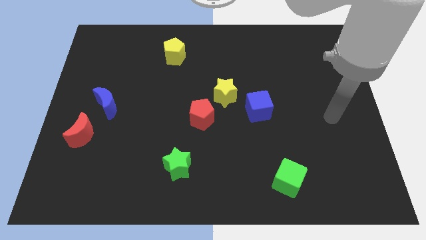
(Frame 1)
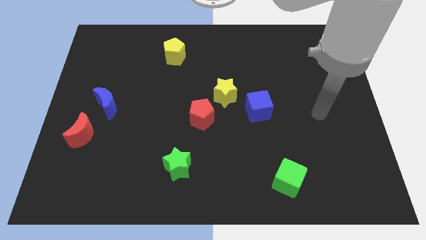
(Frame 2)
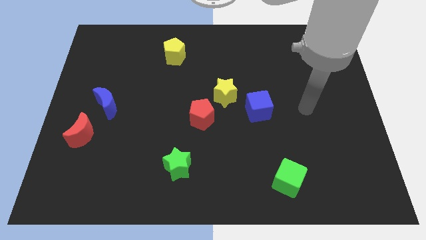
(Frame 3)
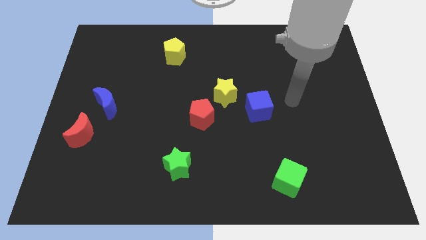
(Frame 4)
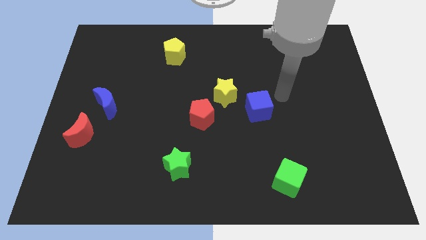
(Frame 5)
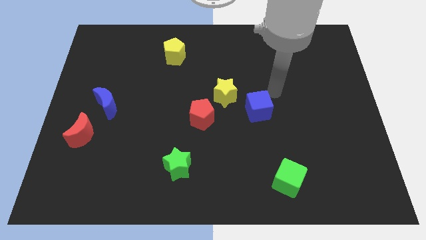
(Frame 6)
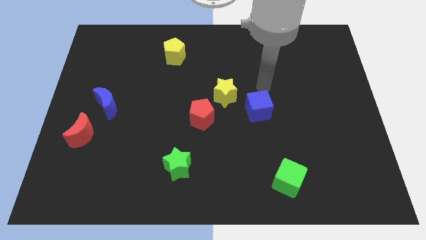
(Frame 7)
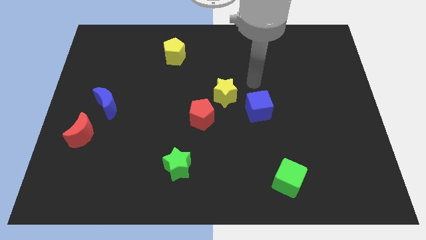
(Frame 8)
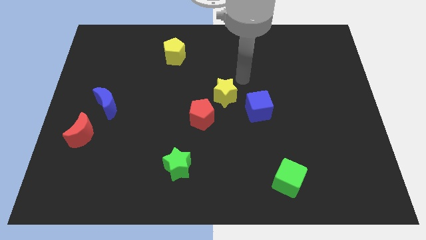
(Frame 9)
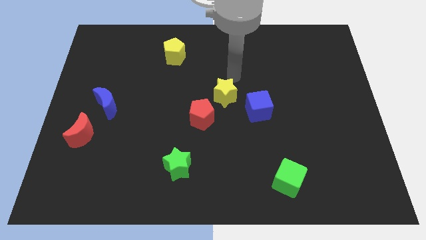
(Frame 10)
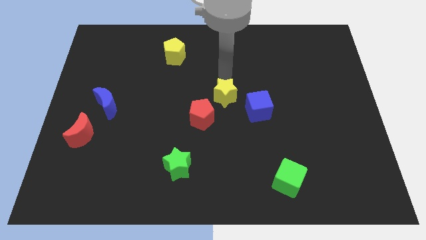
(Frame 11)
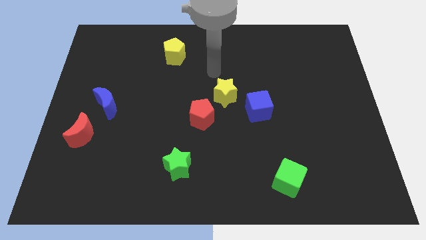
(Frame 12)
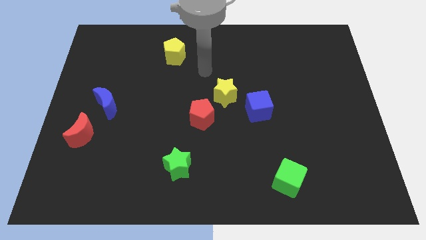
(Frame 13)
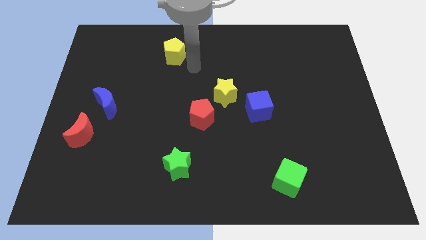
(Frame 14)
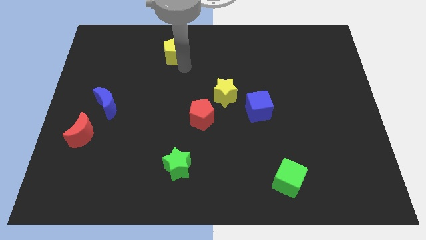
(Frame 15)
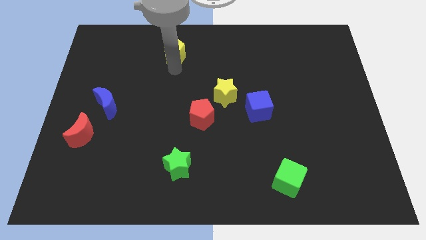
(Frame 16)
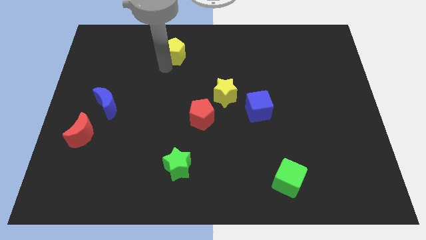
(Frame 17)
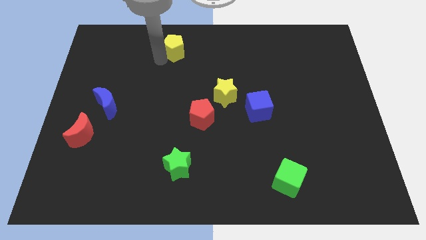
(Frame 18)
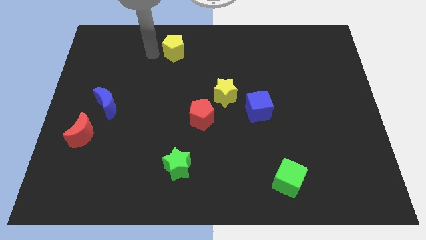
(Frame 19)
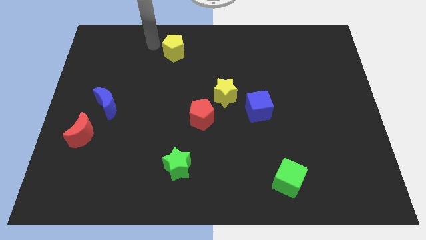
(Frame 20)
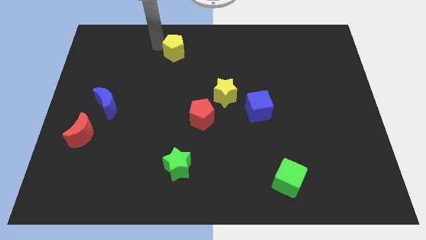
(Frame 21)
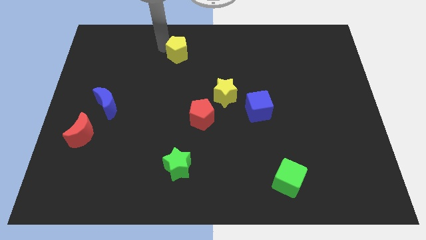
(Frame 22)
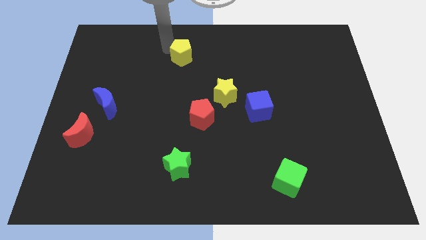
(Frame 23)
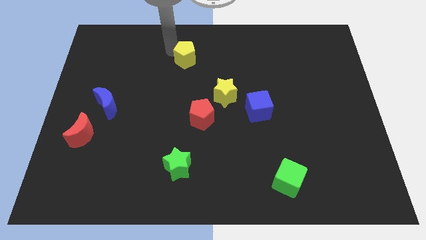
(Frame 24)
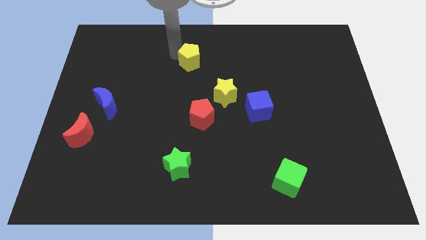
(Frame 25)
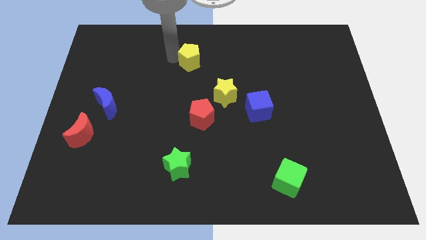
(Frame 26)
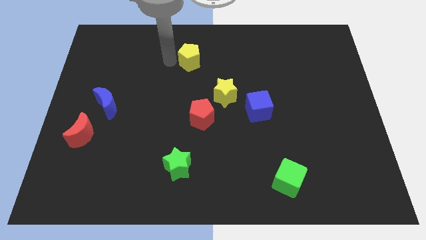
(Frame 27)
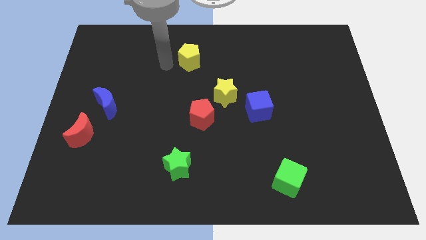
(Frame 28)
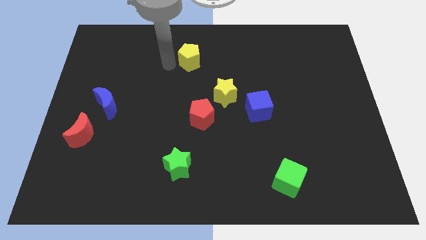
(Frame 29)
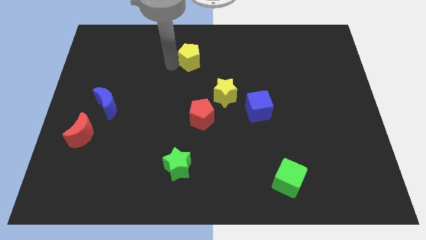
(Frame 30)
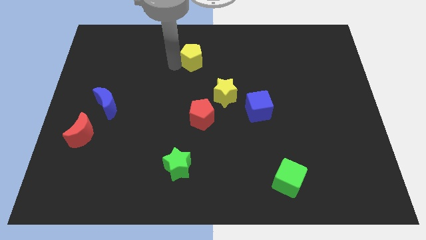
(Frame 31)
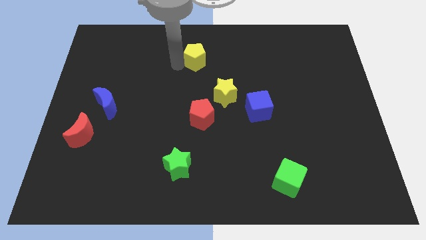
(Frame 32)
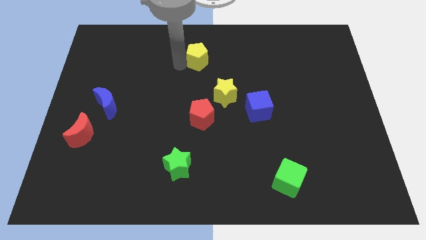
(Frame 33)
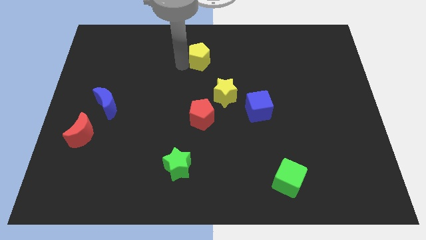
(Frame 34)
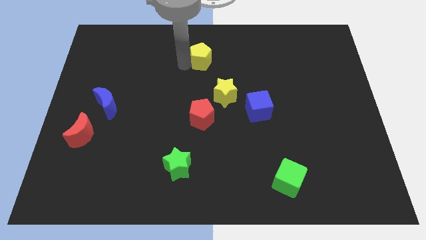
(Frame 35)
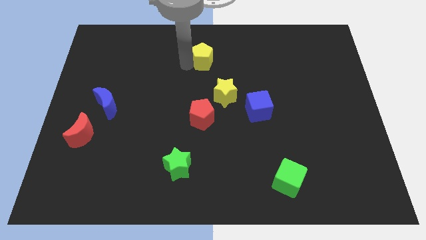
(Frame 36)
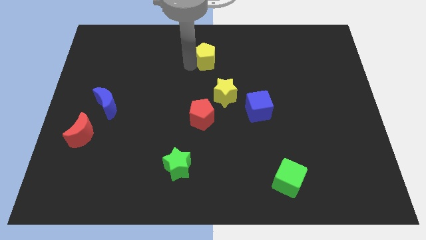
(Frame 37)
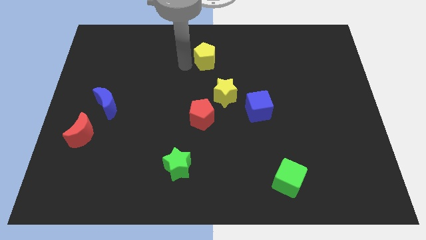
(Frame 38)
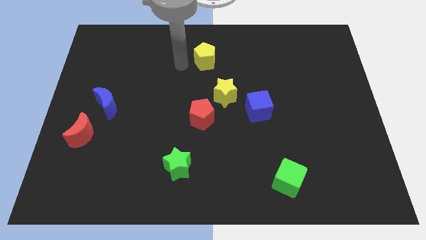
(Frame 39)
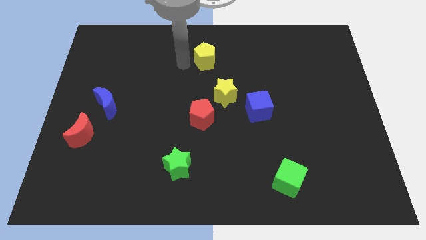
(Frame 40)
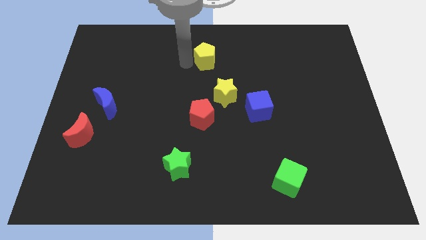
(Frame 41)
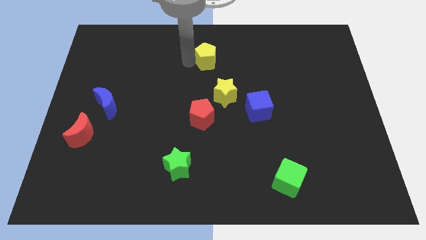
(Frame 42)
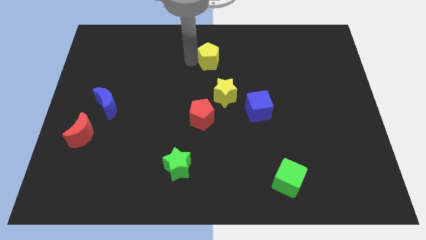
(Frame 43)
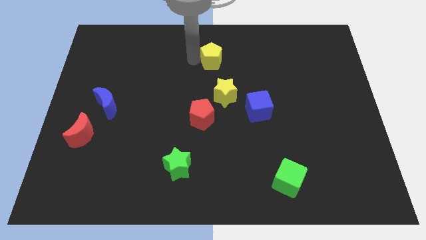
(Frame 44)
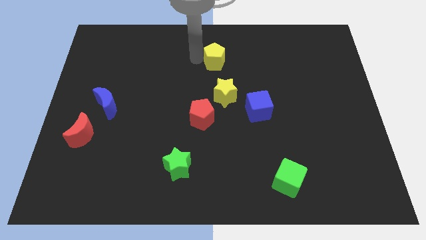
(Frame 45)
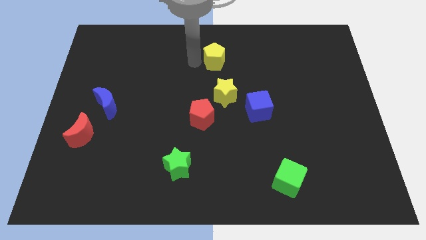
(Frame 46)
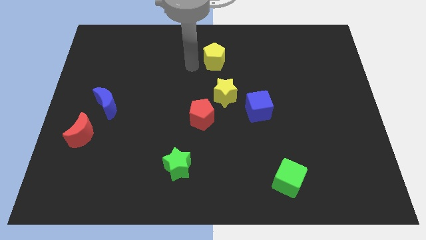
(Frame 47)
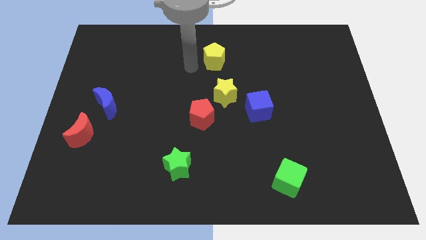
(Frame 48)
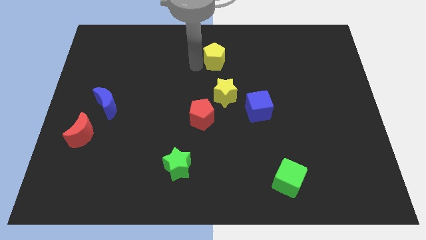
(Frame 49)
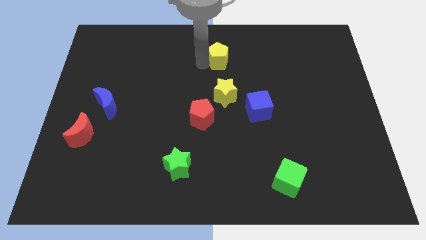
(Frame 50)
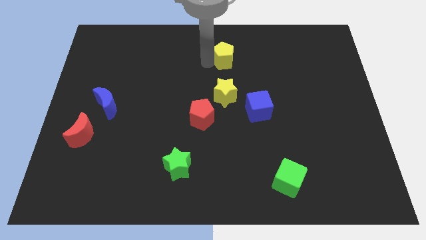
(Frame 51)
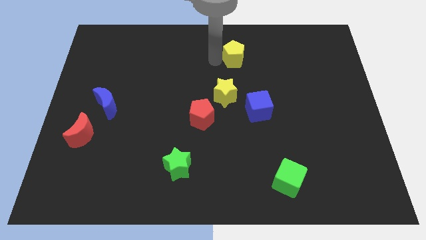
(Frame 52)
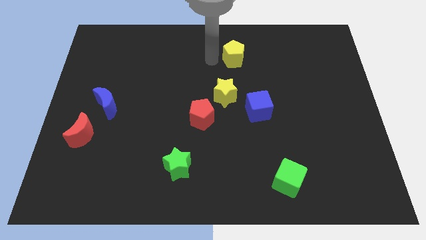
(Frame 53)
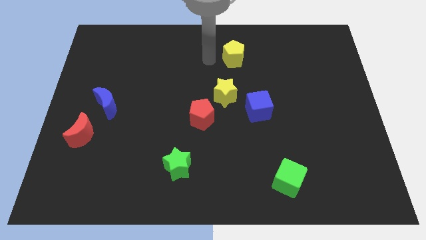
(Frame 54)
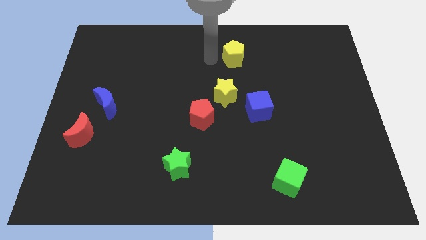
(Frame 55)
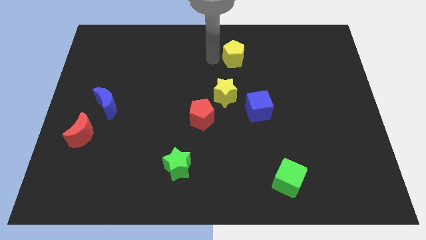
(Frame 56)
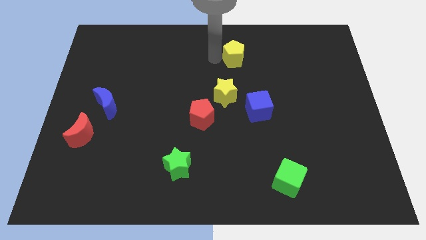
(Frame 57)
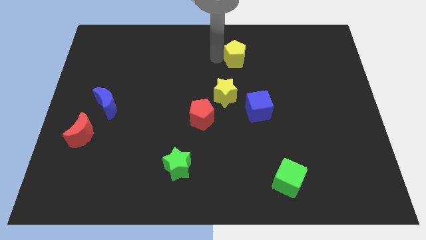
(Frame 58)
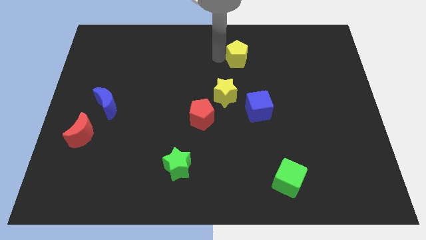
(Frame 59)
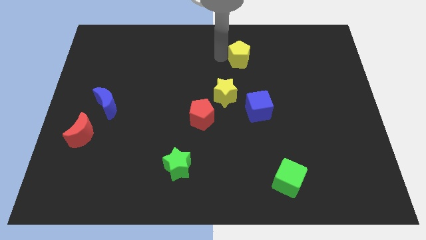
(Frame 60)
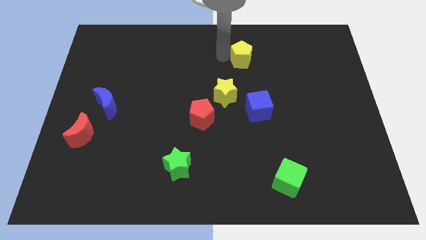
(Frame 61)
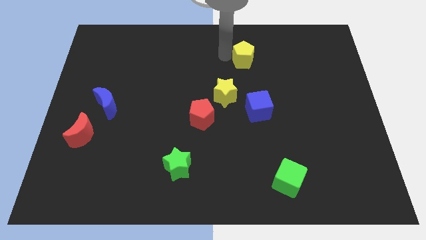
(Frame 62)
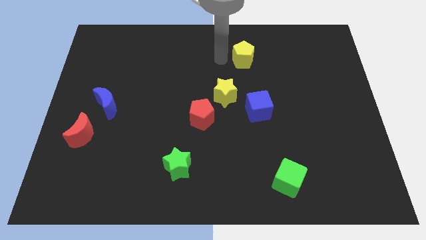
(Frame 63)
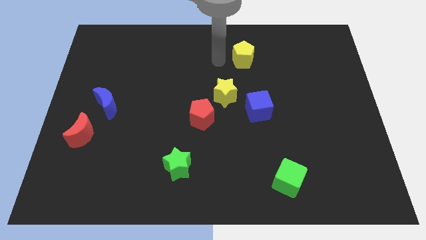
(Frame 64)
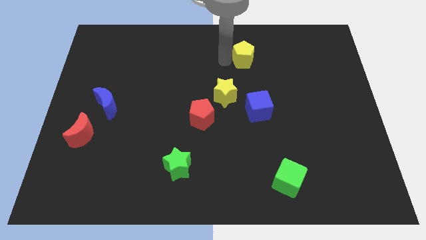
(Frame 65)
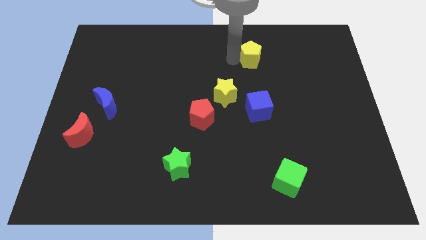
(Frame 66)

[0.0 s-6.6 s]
move the yellow pentagon to the right

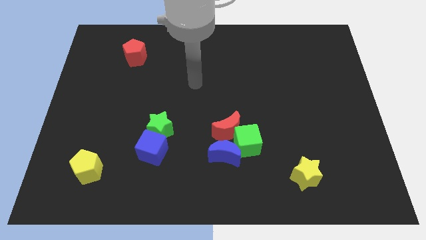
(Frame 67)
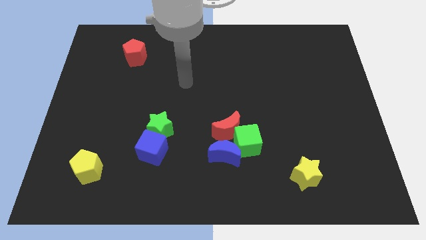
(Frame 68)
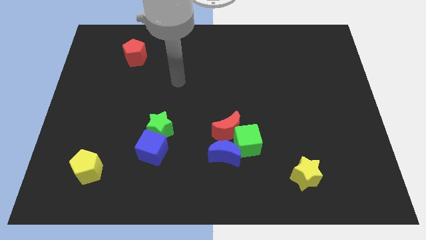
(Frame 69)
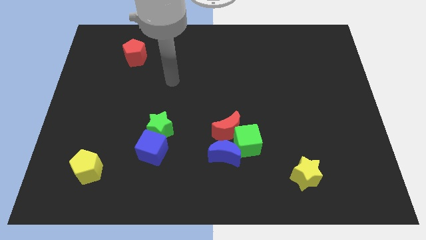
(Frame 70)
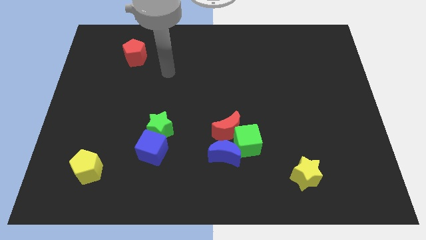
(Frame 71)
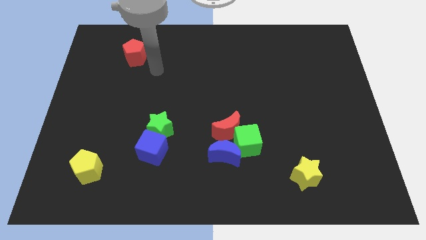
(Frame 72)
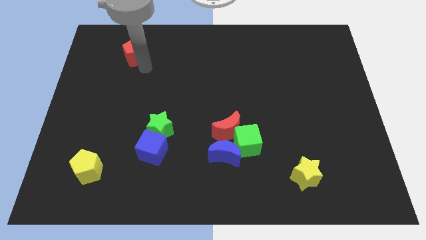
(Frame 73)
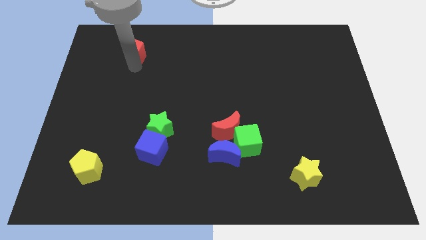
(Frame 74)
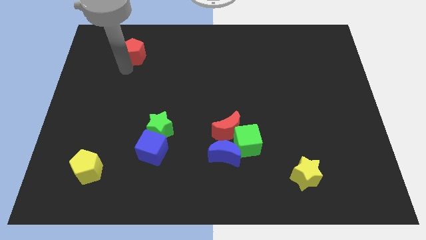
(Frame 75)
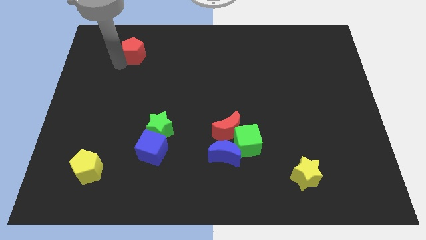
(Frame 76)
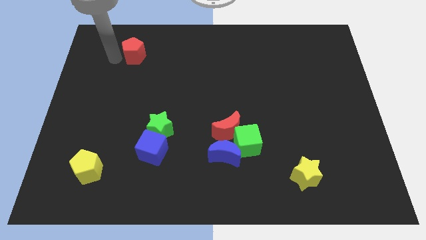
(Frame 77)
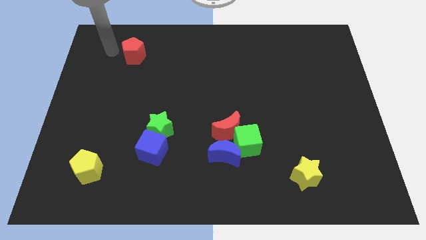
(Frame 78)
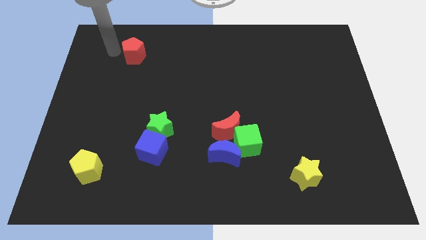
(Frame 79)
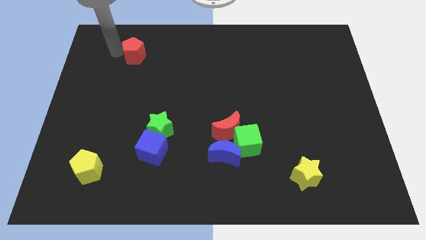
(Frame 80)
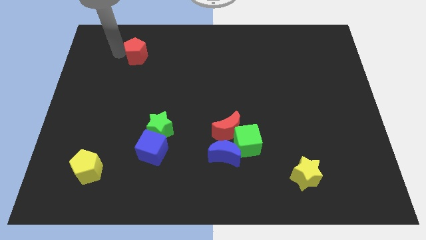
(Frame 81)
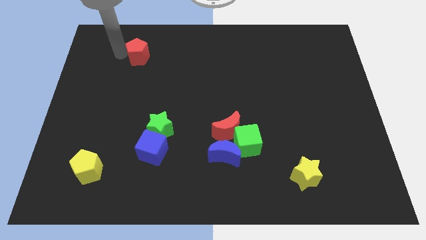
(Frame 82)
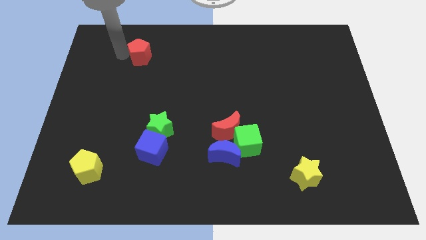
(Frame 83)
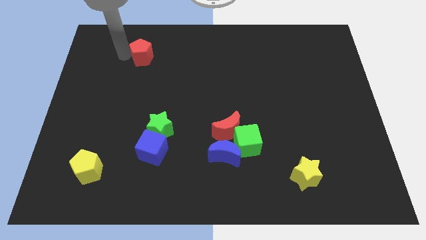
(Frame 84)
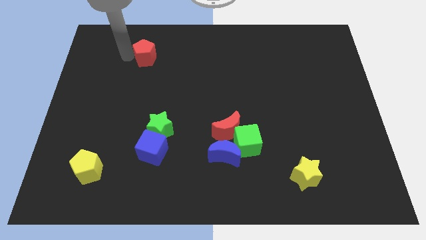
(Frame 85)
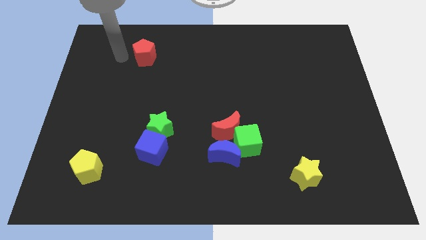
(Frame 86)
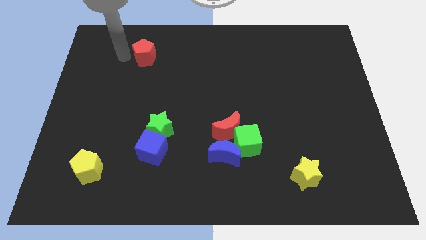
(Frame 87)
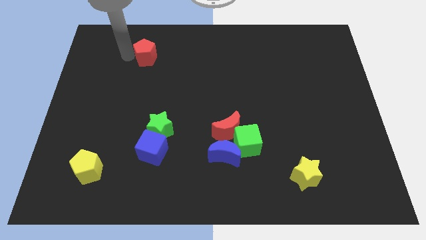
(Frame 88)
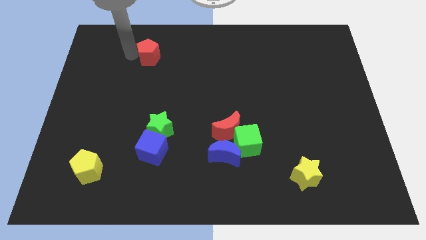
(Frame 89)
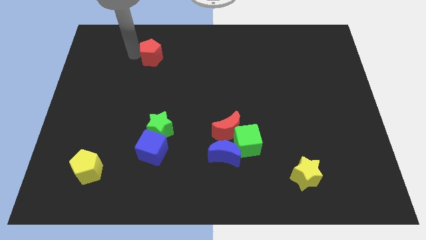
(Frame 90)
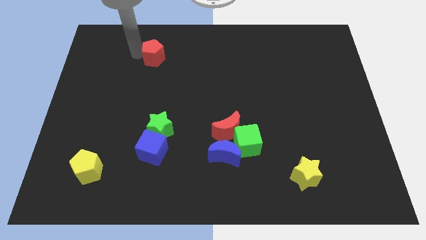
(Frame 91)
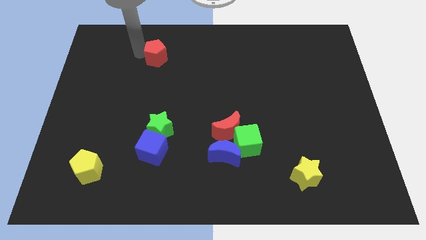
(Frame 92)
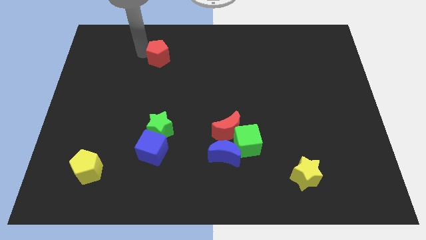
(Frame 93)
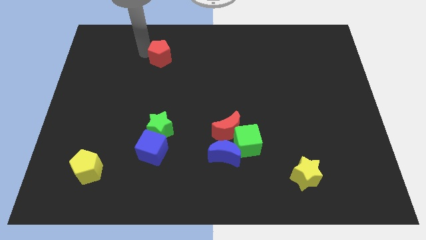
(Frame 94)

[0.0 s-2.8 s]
move the red pentagon a bit to the right
